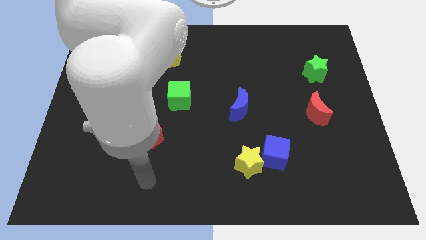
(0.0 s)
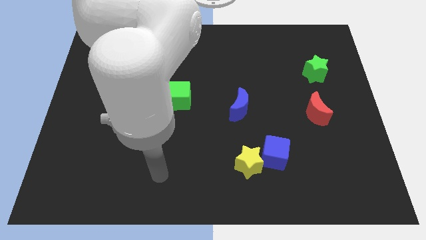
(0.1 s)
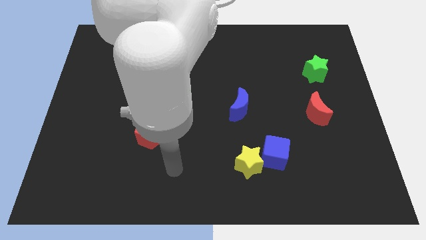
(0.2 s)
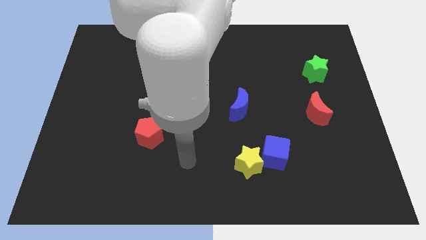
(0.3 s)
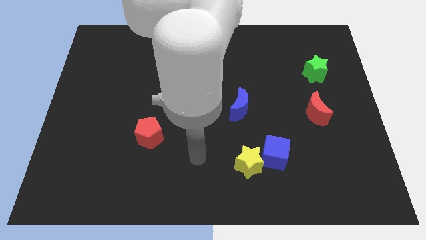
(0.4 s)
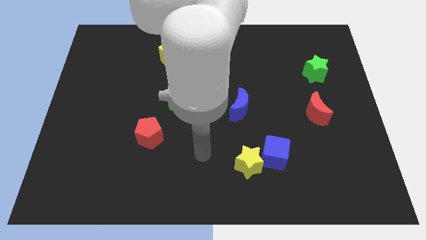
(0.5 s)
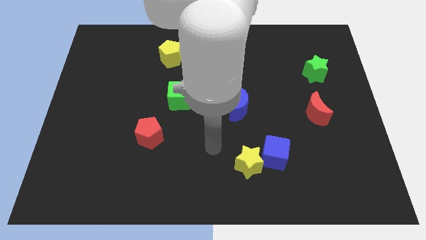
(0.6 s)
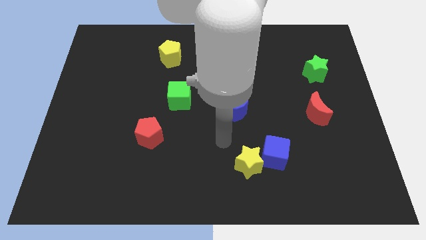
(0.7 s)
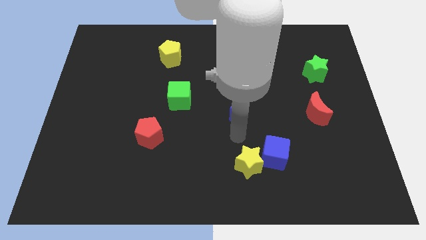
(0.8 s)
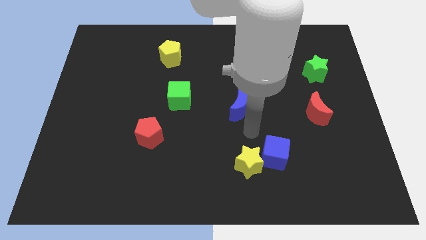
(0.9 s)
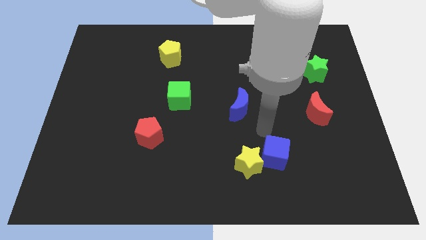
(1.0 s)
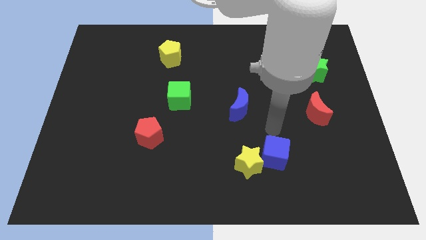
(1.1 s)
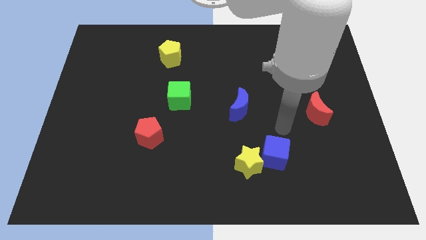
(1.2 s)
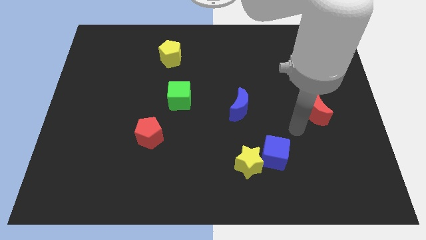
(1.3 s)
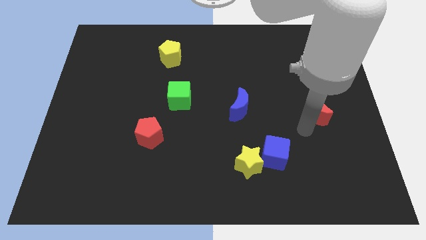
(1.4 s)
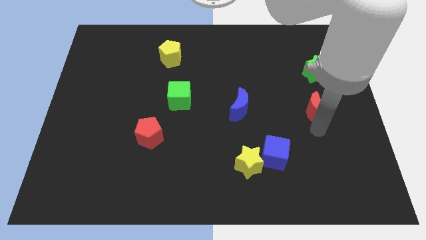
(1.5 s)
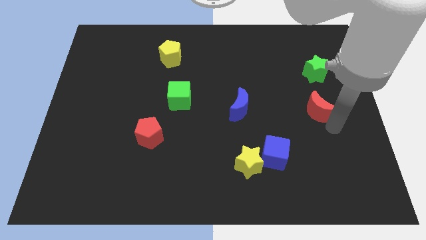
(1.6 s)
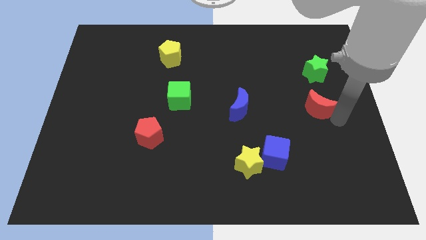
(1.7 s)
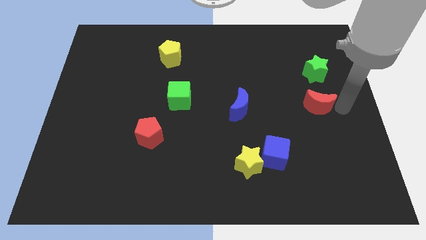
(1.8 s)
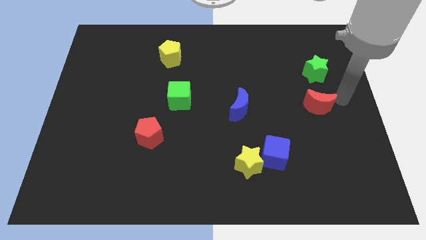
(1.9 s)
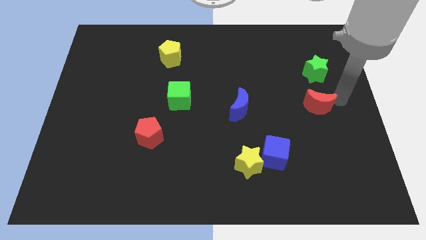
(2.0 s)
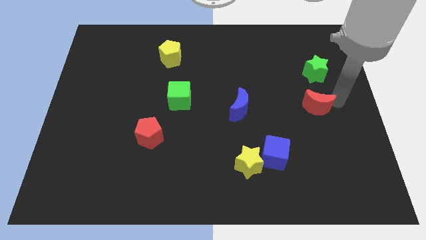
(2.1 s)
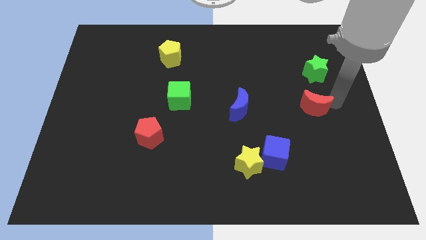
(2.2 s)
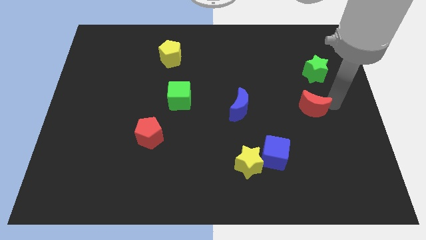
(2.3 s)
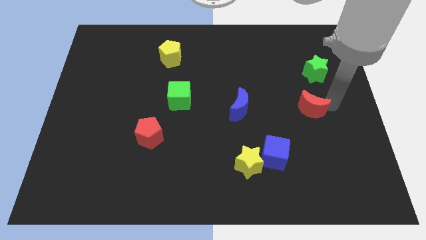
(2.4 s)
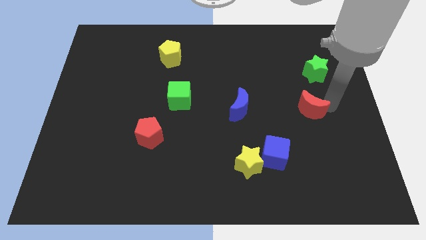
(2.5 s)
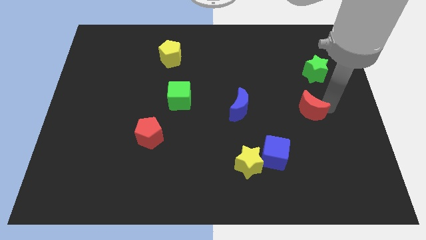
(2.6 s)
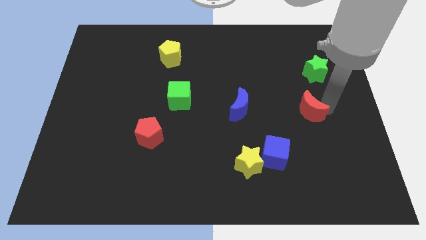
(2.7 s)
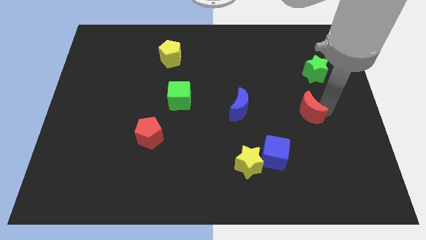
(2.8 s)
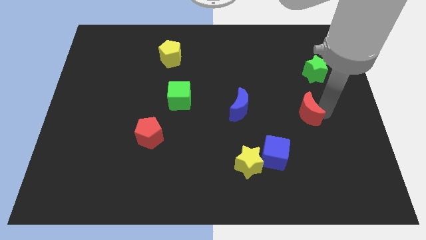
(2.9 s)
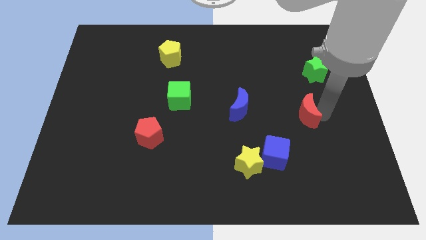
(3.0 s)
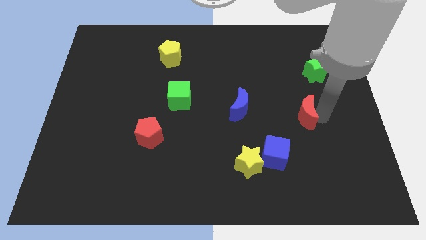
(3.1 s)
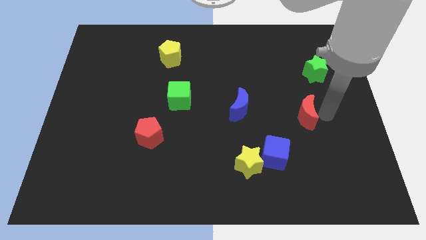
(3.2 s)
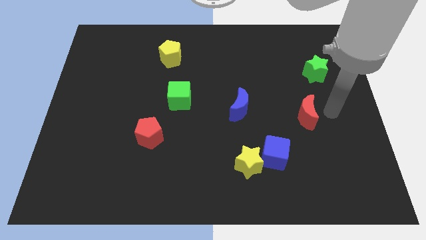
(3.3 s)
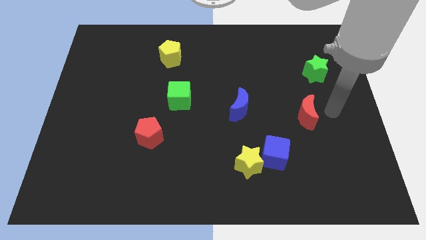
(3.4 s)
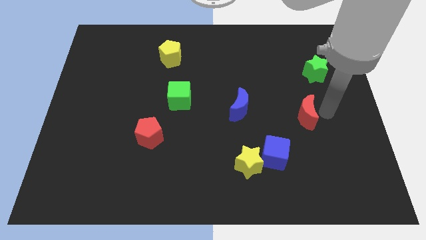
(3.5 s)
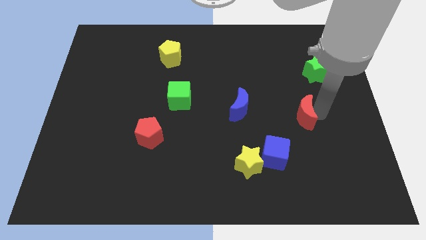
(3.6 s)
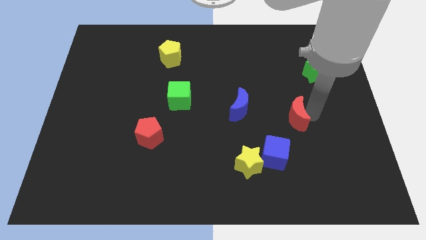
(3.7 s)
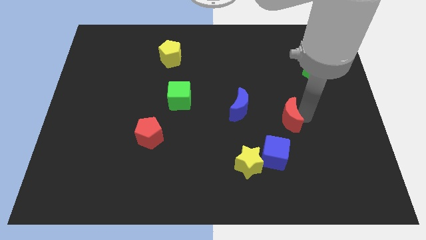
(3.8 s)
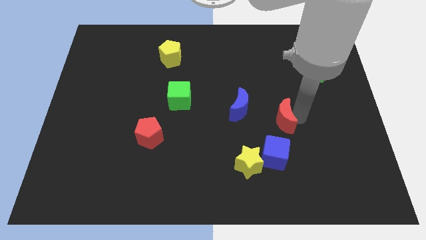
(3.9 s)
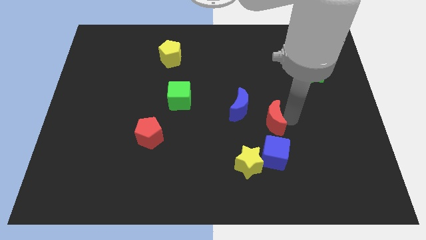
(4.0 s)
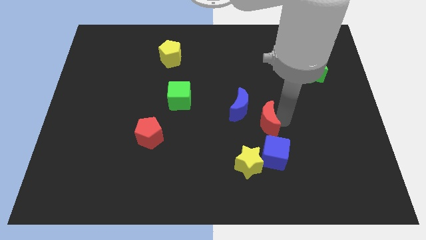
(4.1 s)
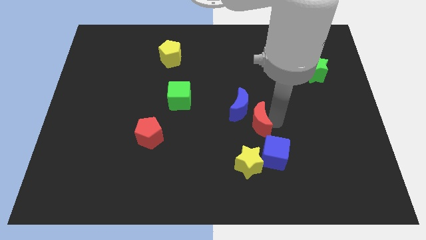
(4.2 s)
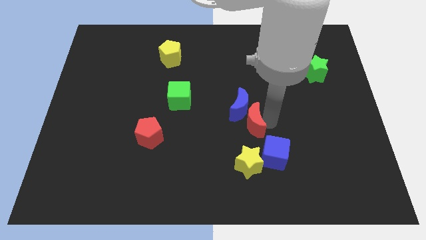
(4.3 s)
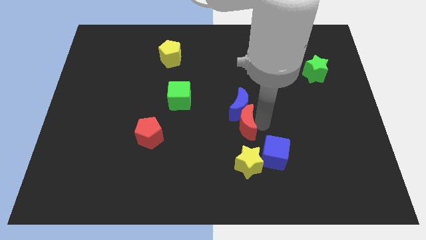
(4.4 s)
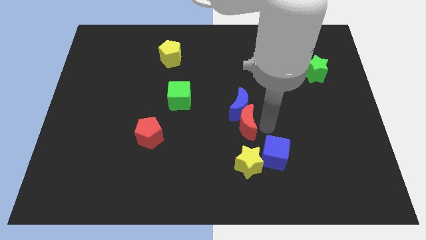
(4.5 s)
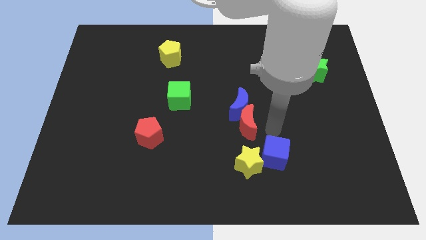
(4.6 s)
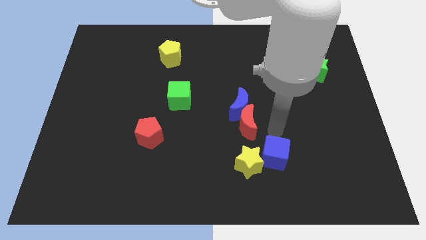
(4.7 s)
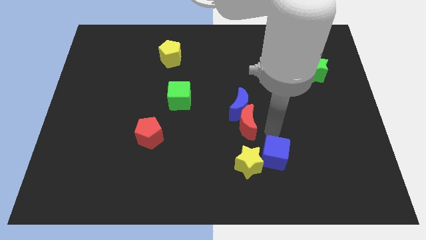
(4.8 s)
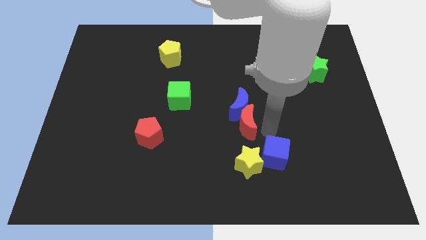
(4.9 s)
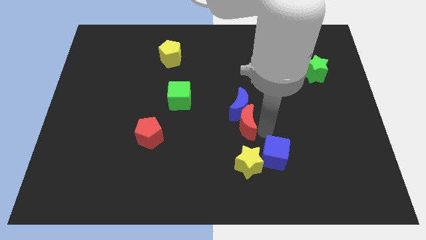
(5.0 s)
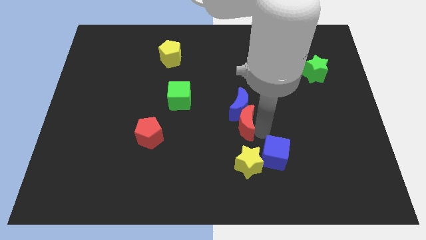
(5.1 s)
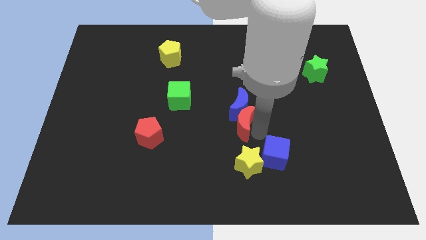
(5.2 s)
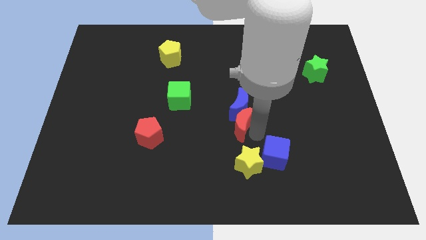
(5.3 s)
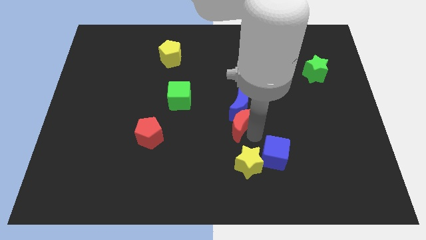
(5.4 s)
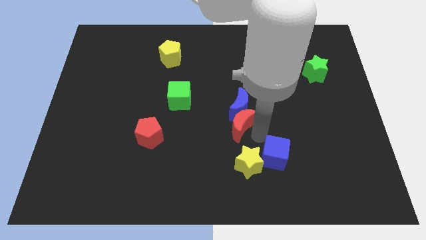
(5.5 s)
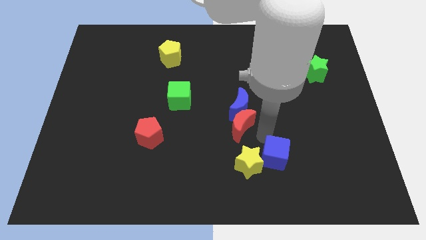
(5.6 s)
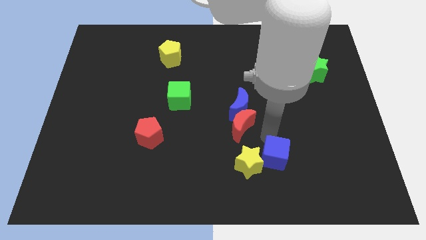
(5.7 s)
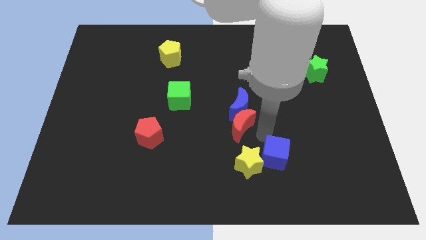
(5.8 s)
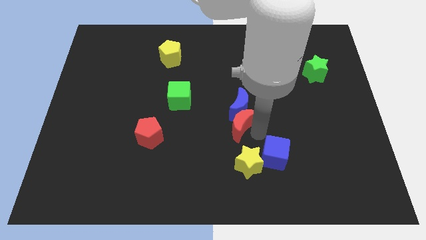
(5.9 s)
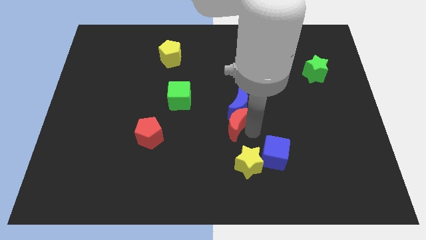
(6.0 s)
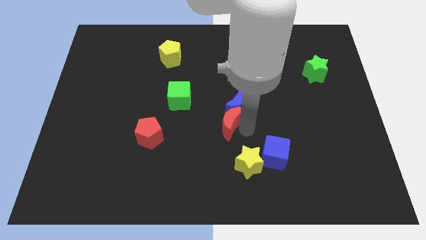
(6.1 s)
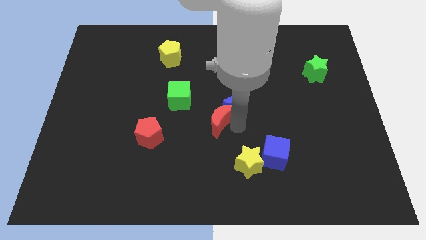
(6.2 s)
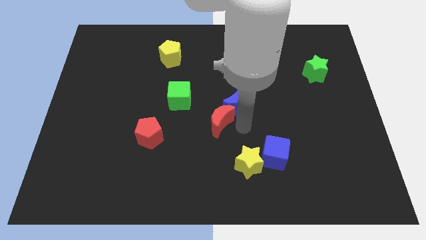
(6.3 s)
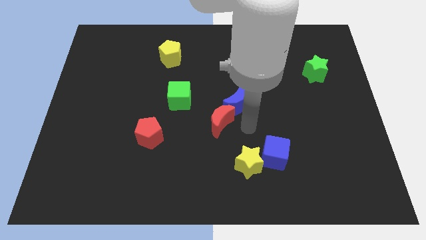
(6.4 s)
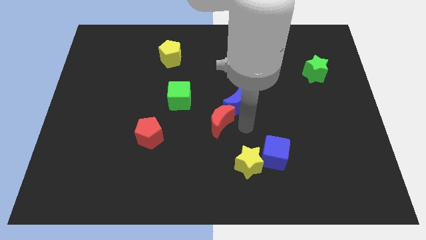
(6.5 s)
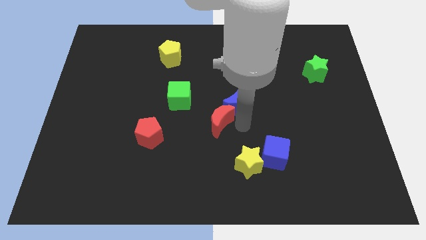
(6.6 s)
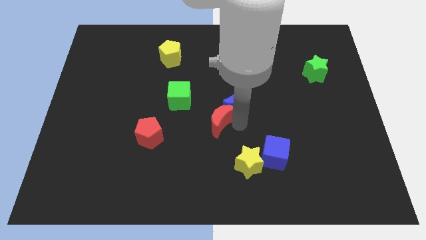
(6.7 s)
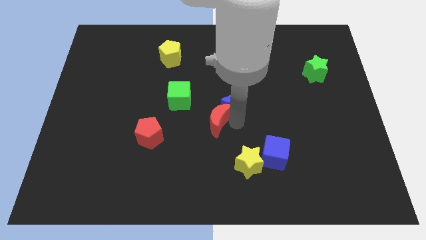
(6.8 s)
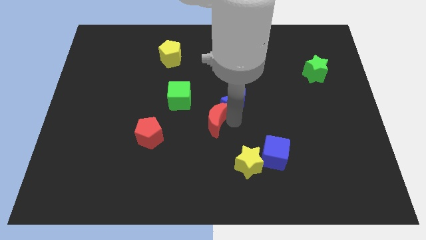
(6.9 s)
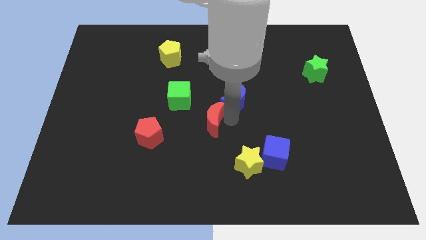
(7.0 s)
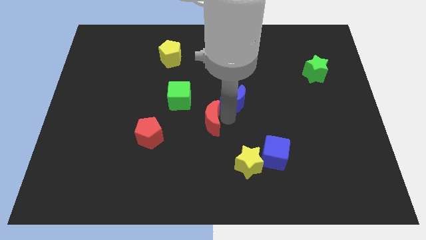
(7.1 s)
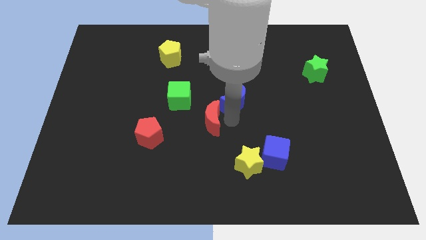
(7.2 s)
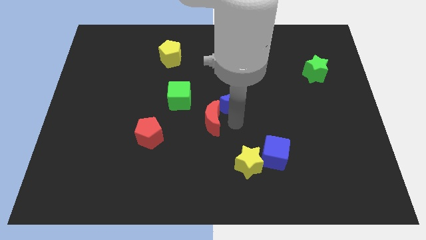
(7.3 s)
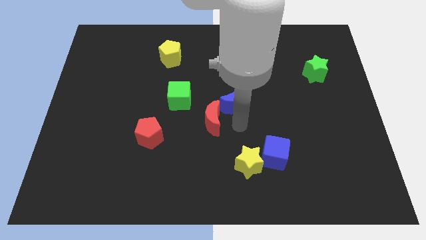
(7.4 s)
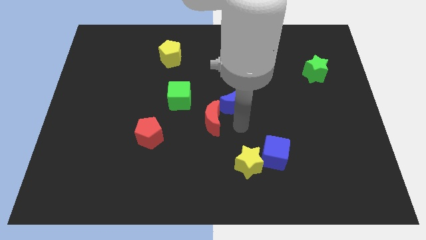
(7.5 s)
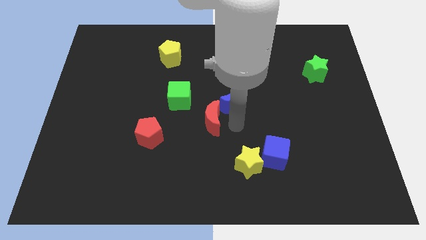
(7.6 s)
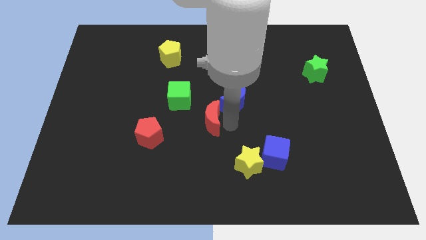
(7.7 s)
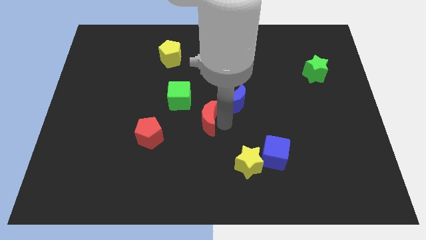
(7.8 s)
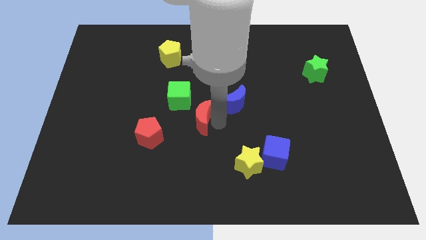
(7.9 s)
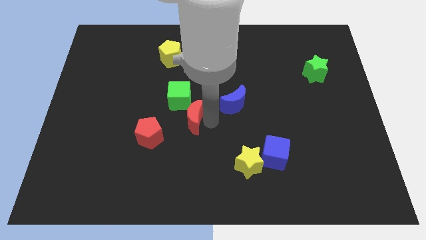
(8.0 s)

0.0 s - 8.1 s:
move the red moon to the top right of the red pentagon
